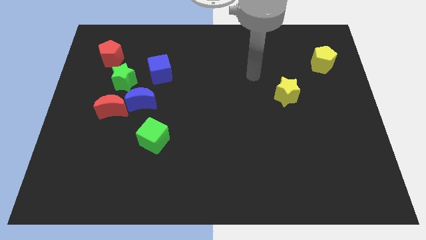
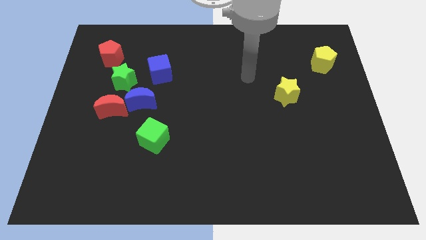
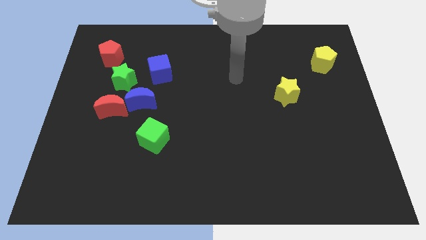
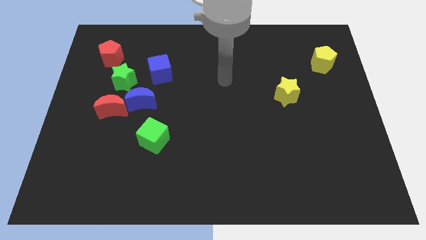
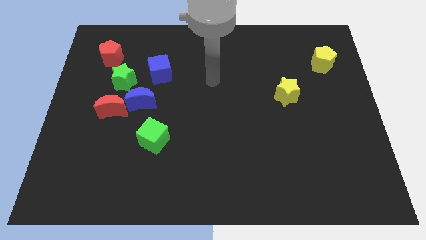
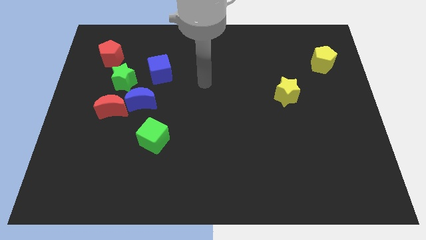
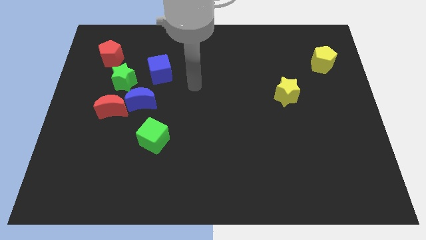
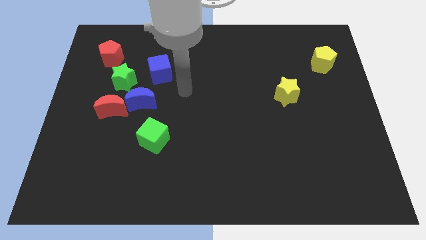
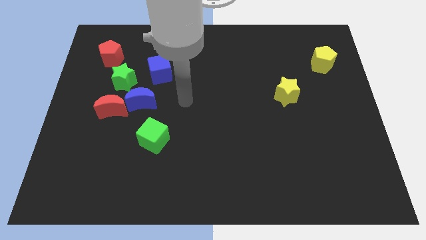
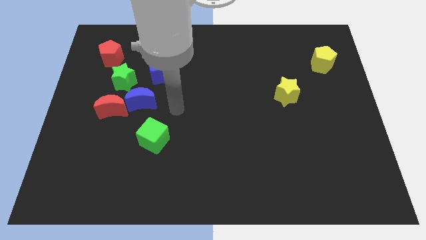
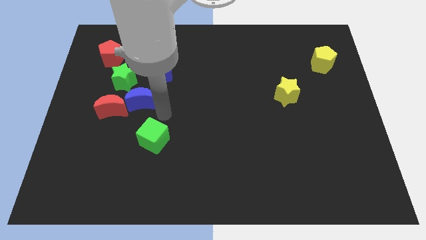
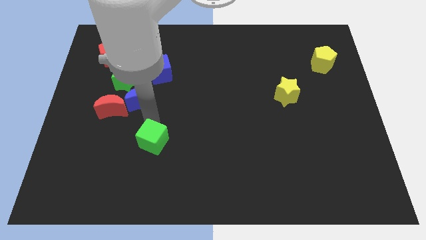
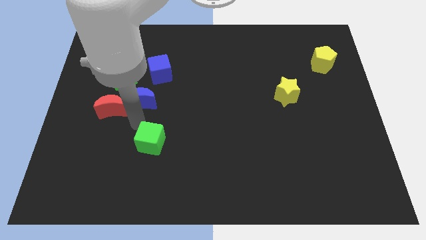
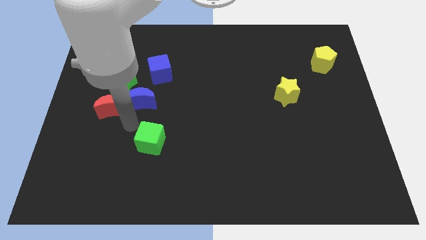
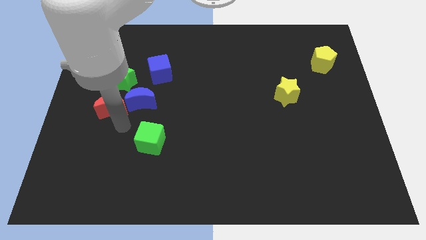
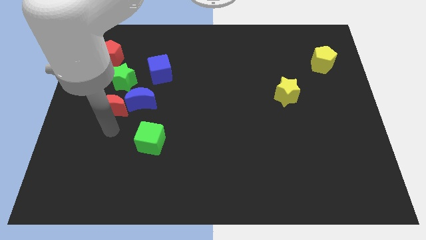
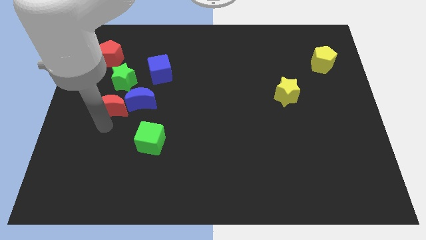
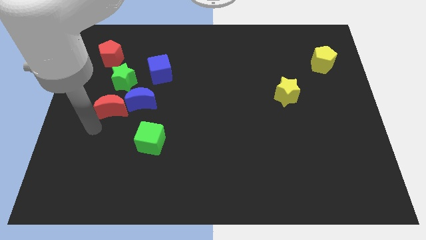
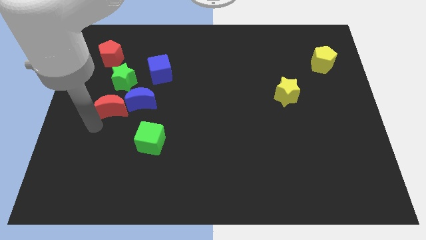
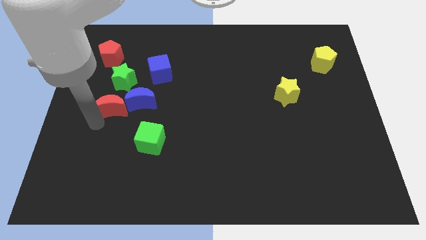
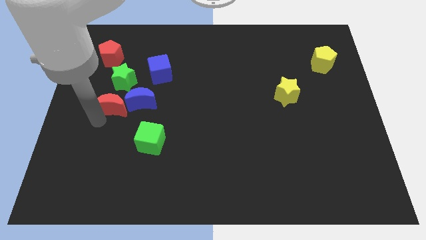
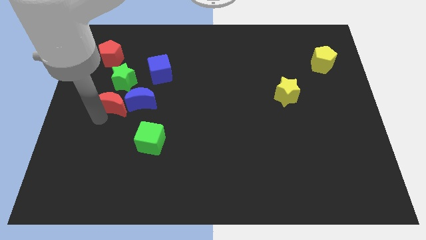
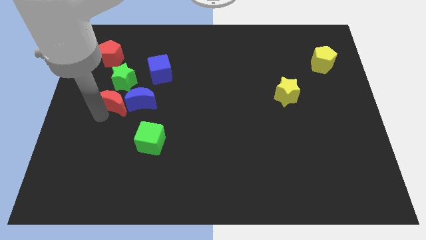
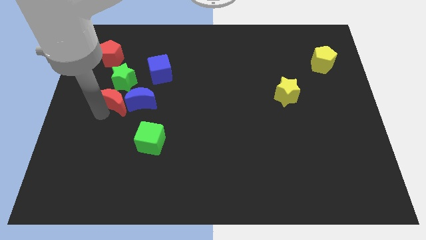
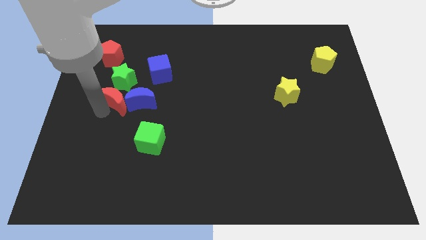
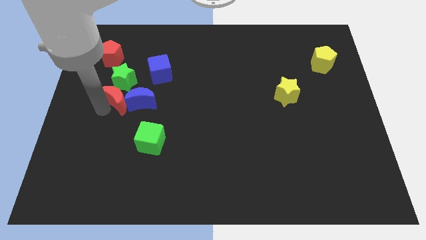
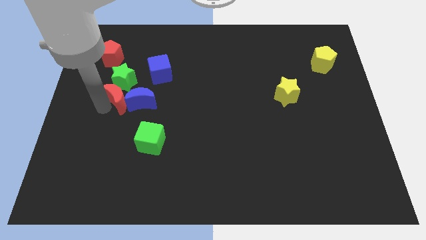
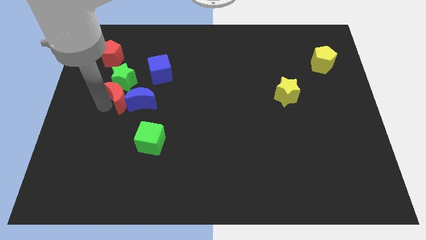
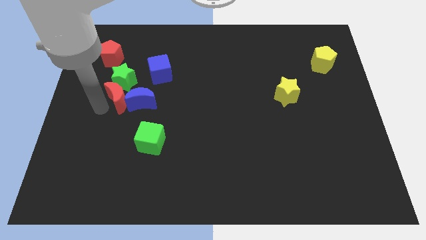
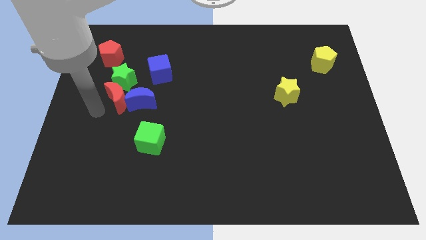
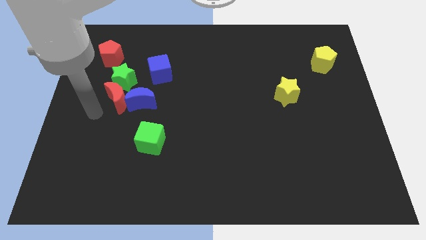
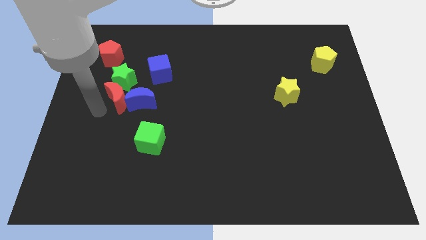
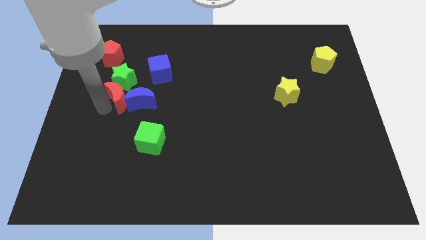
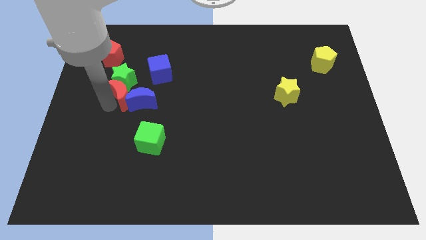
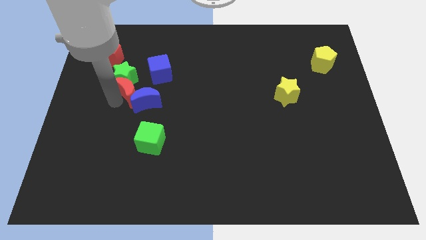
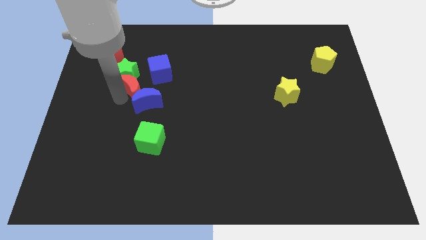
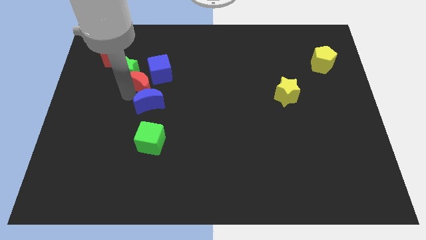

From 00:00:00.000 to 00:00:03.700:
move the red moon towards the blue cube

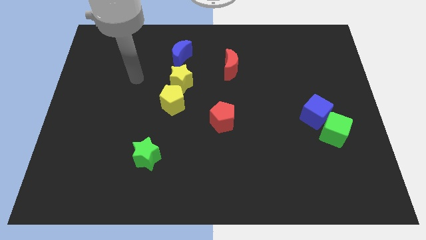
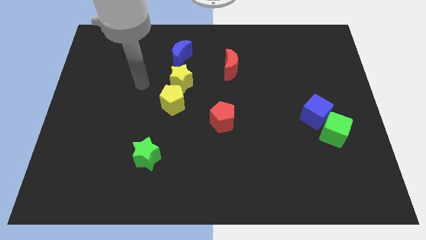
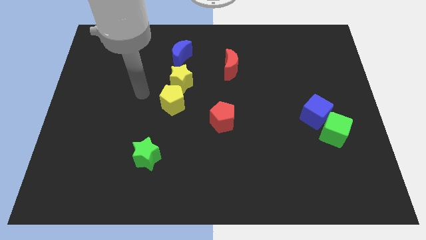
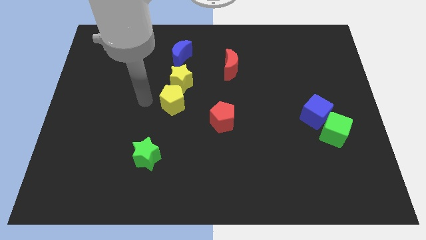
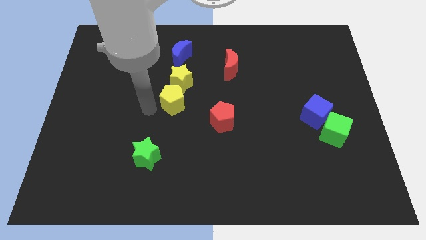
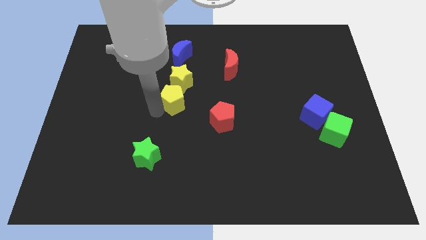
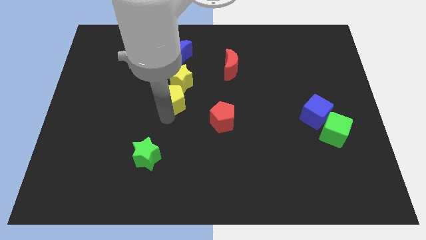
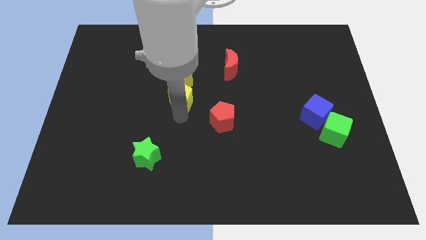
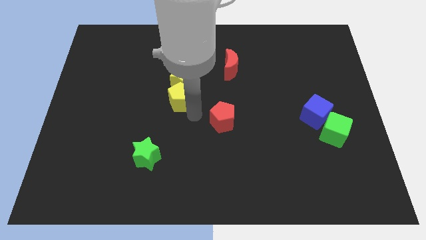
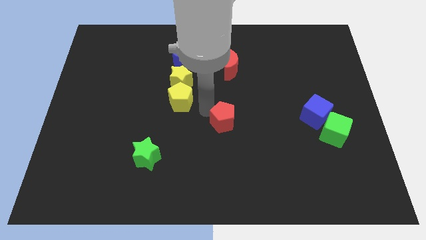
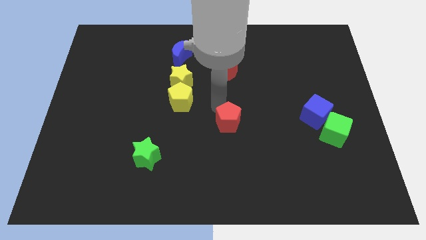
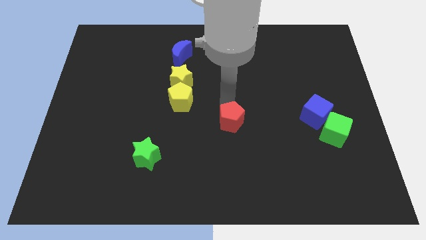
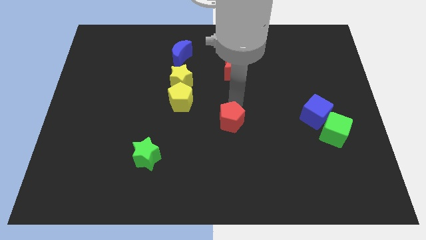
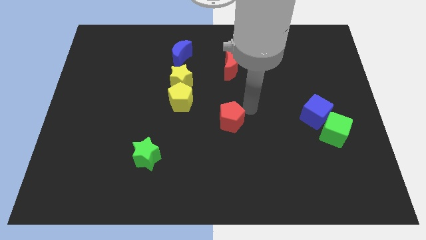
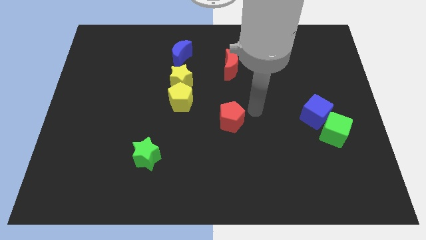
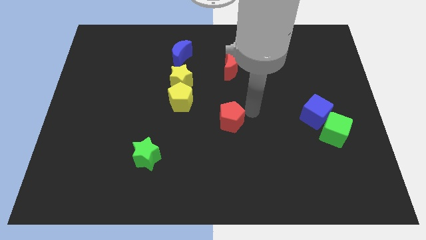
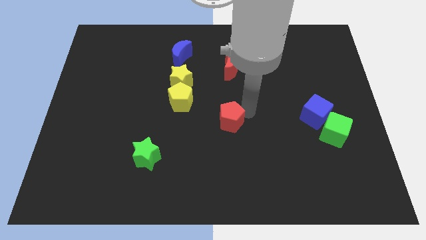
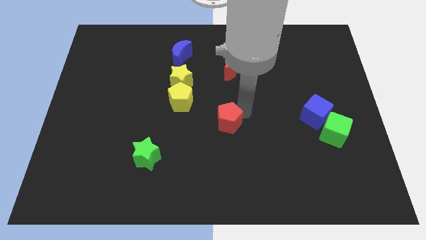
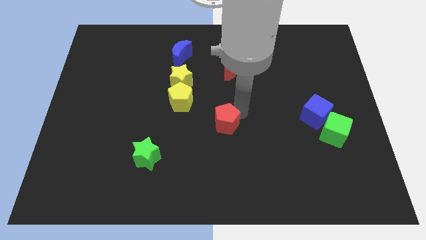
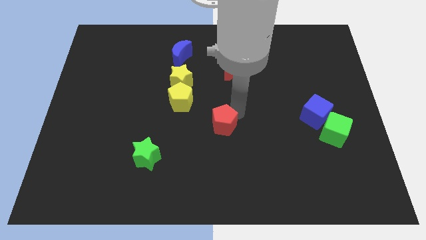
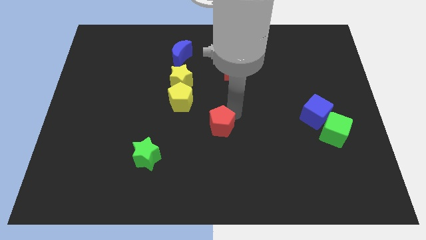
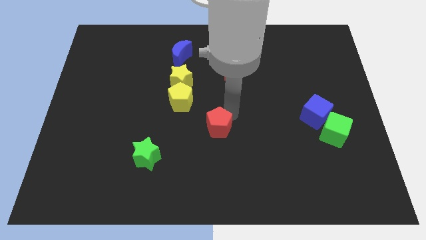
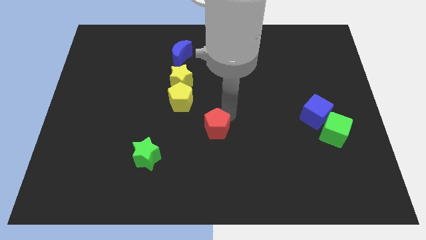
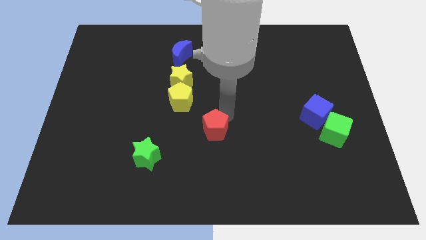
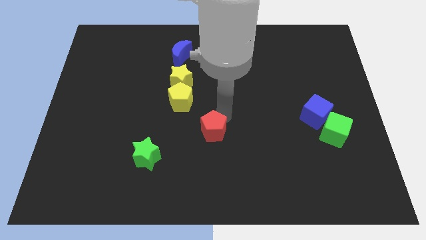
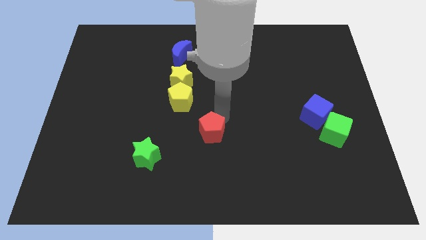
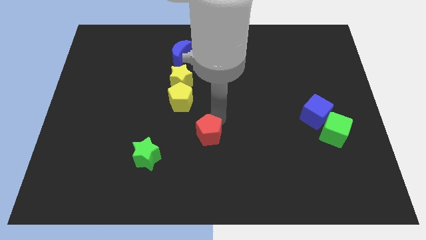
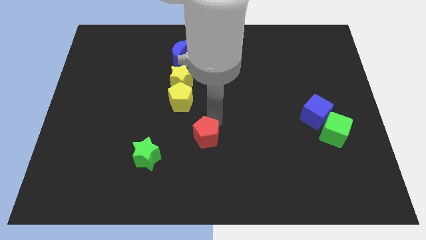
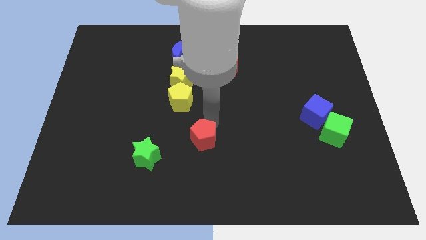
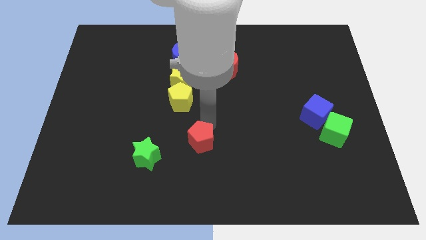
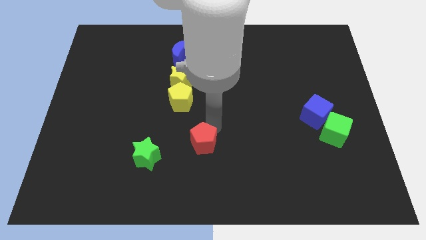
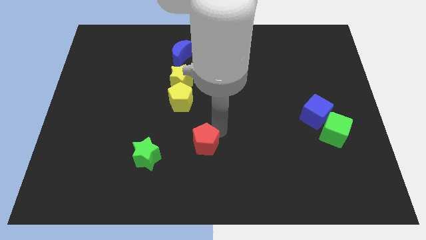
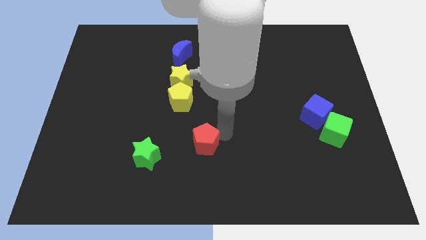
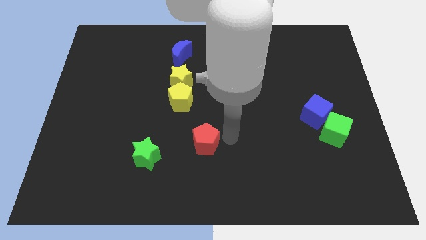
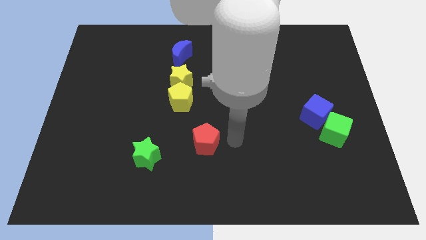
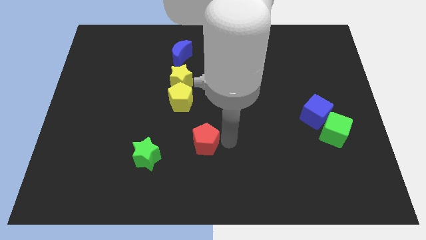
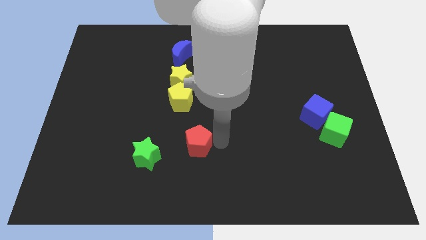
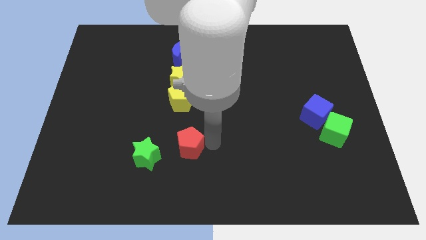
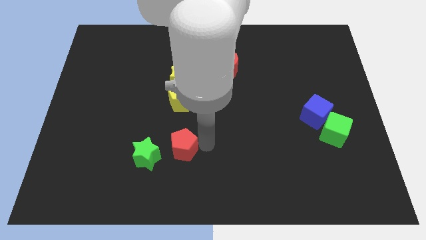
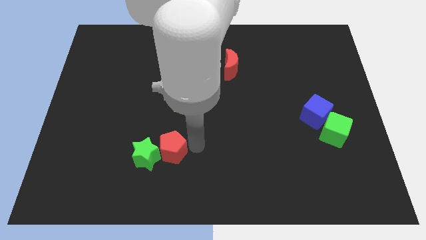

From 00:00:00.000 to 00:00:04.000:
push the red pentagon towards the green star

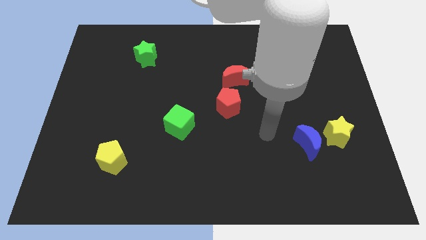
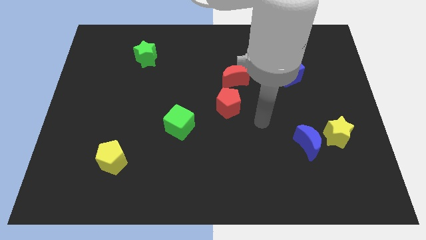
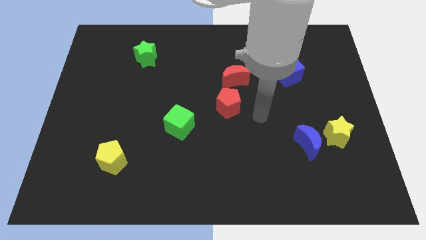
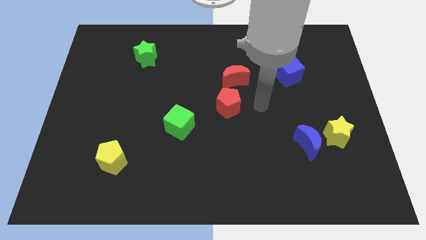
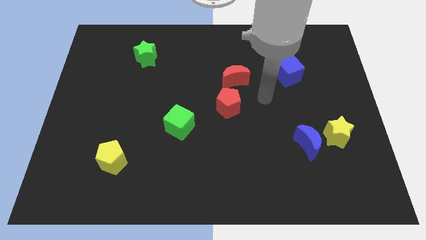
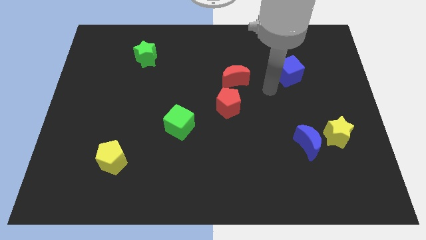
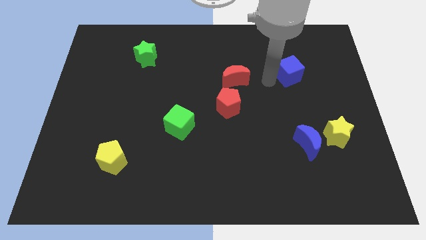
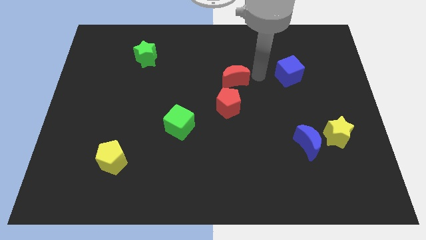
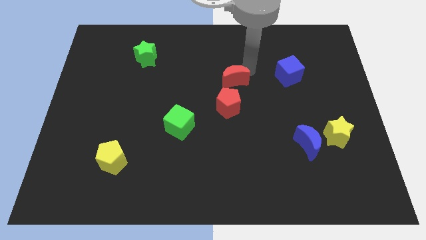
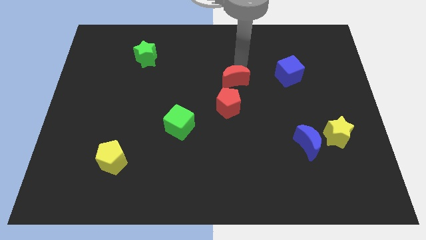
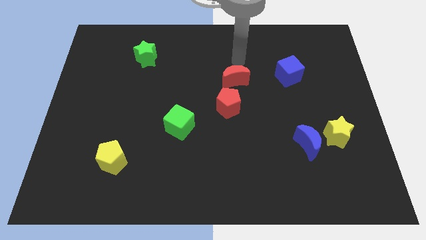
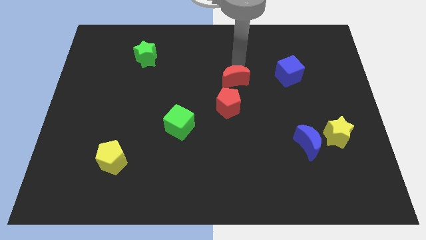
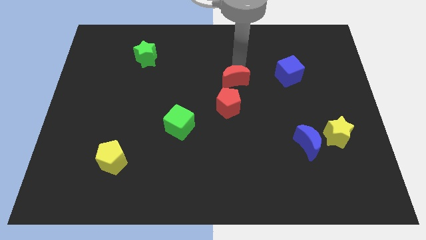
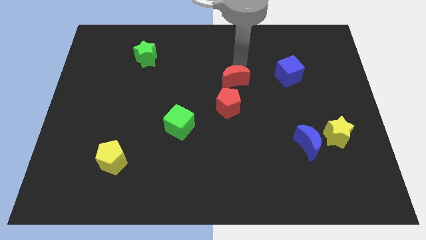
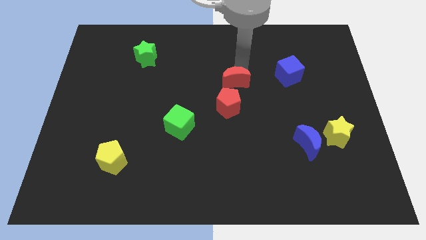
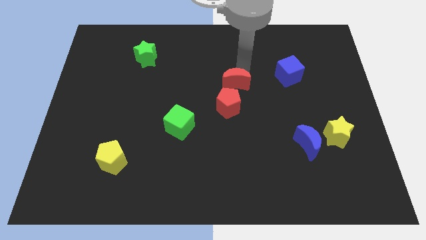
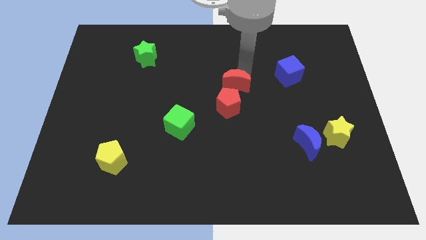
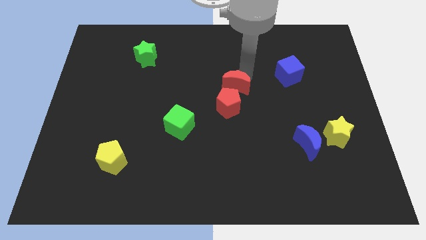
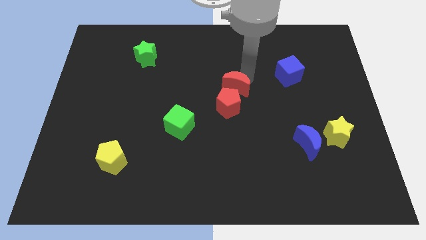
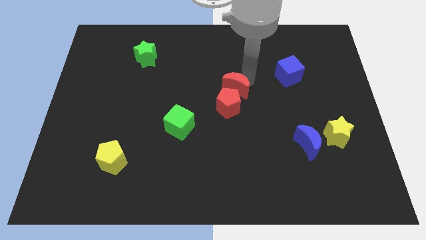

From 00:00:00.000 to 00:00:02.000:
push the red moon to the red pentagon
